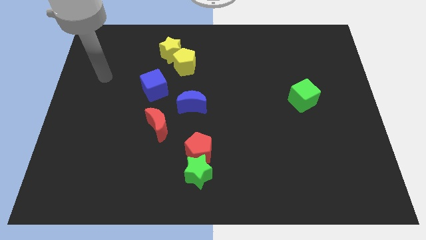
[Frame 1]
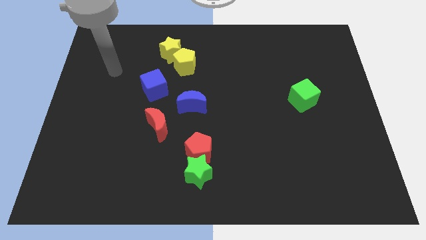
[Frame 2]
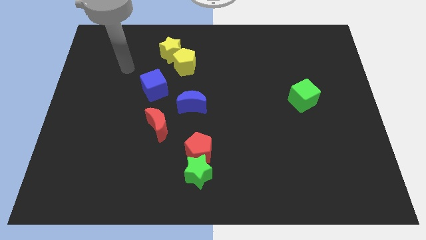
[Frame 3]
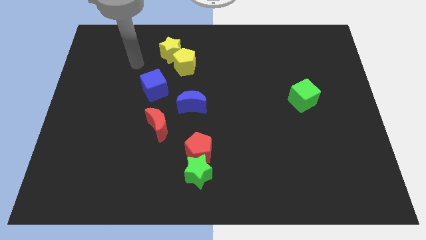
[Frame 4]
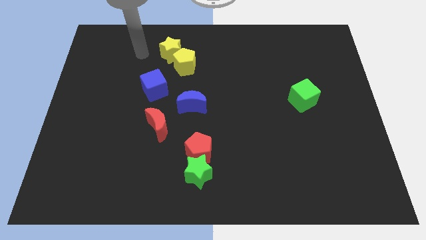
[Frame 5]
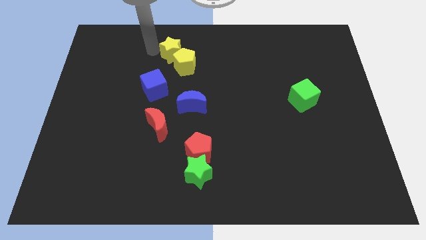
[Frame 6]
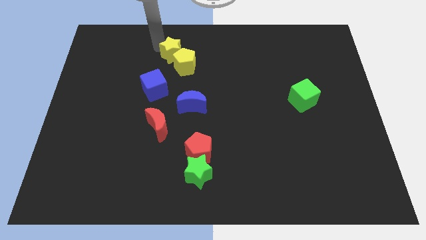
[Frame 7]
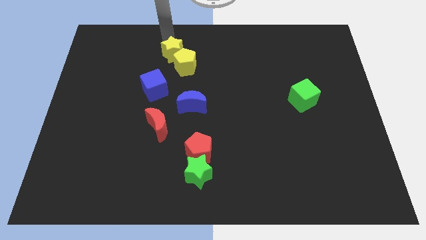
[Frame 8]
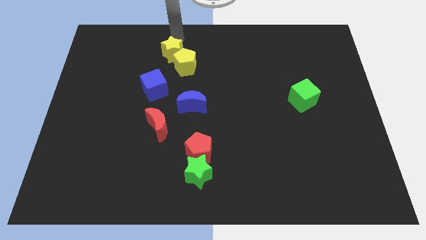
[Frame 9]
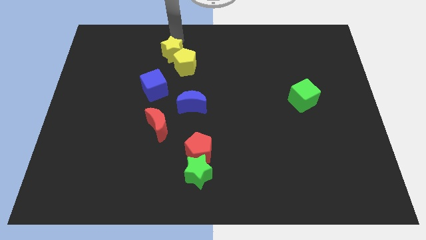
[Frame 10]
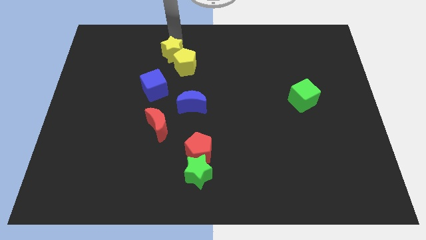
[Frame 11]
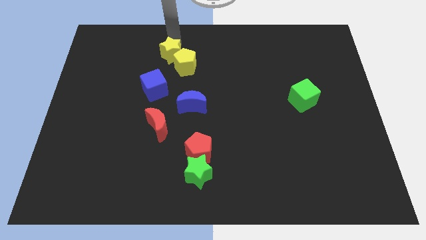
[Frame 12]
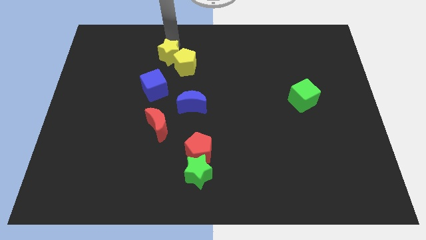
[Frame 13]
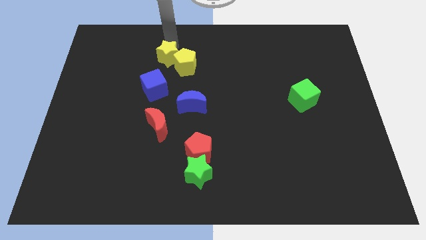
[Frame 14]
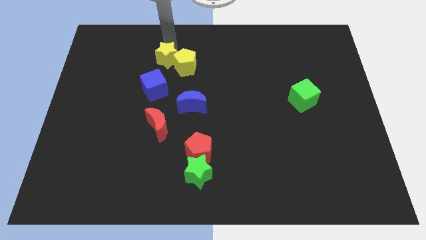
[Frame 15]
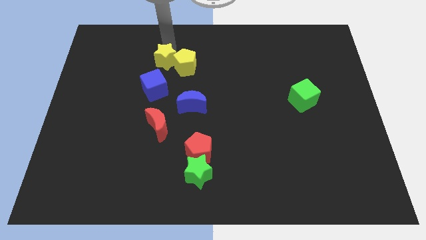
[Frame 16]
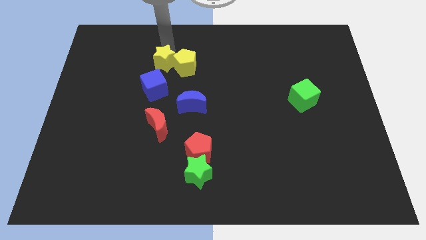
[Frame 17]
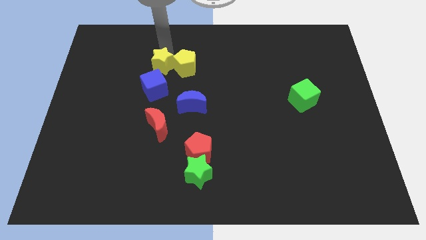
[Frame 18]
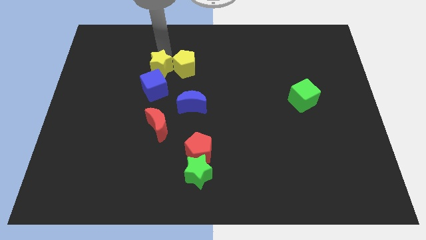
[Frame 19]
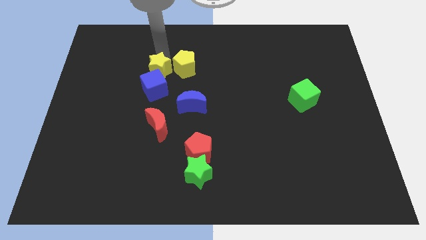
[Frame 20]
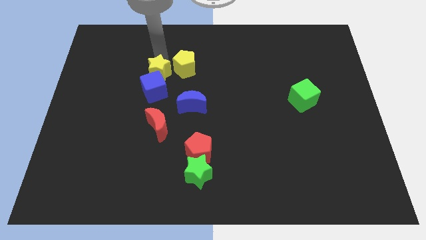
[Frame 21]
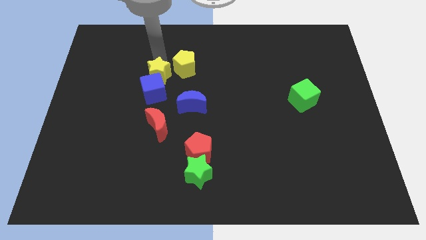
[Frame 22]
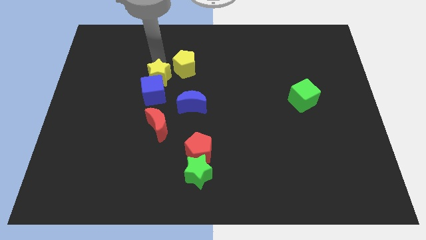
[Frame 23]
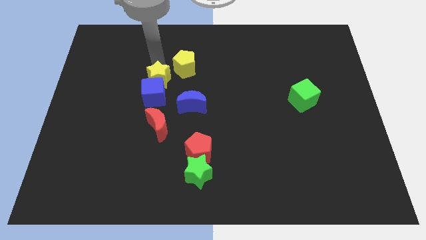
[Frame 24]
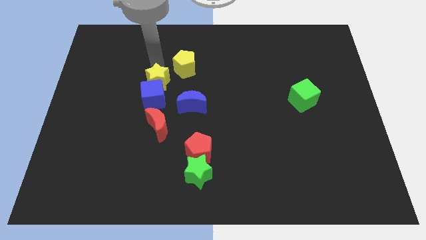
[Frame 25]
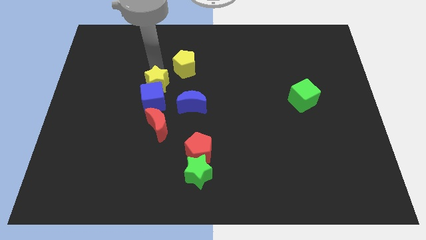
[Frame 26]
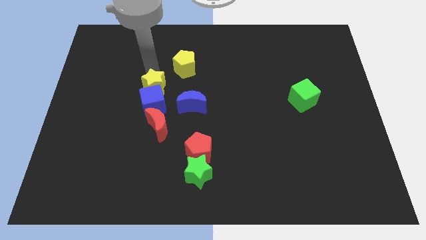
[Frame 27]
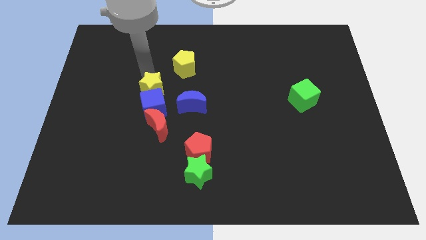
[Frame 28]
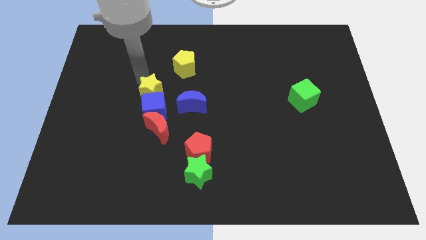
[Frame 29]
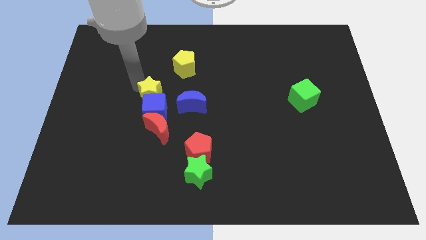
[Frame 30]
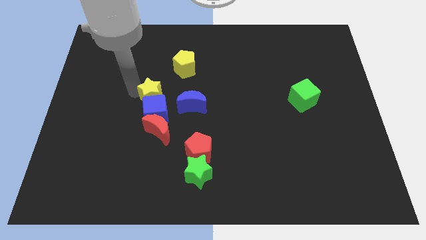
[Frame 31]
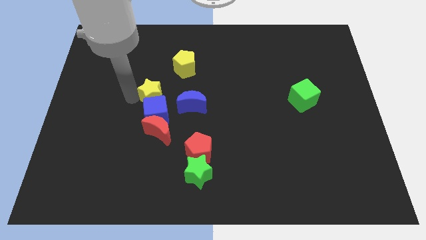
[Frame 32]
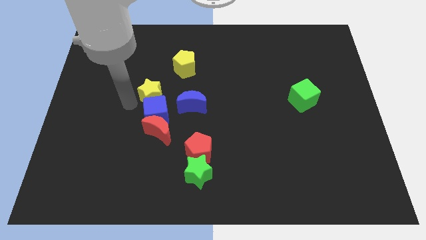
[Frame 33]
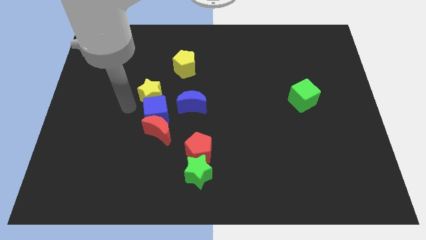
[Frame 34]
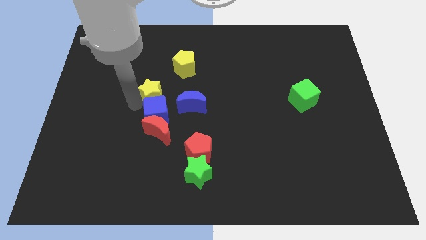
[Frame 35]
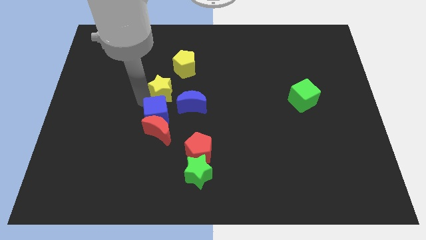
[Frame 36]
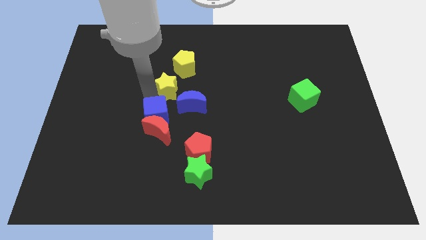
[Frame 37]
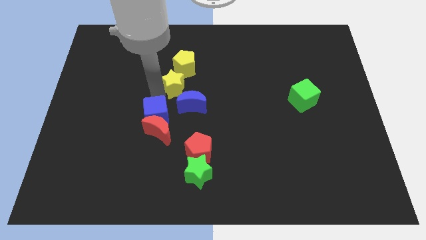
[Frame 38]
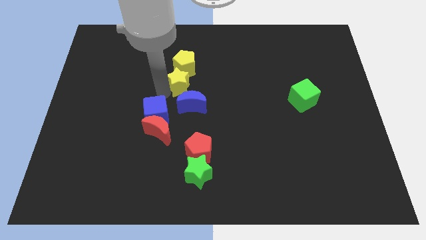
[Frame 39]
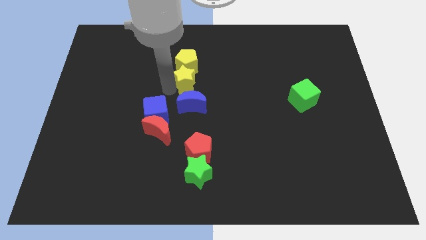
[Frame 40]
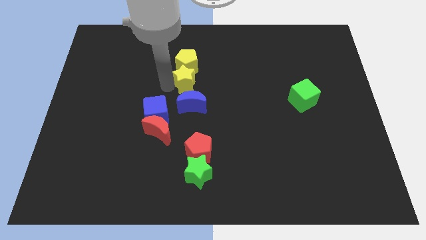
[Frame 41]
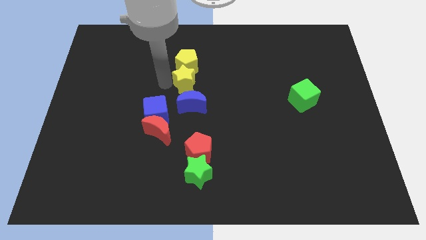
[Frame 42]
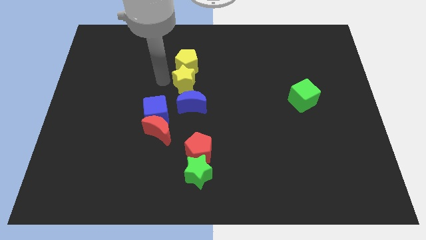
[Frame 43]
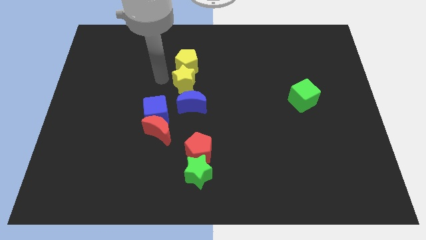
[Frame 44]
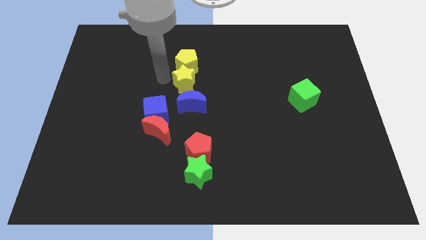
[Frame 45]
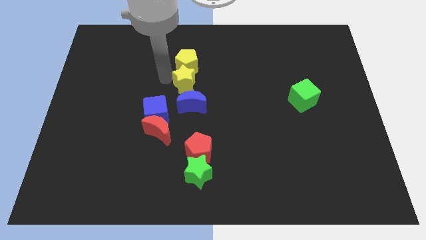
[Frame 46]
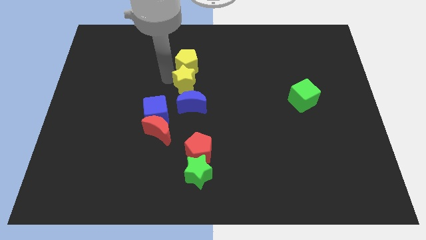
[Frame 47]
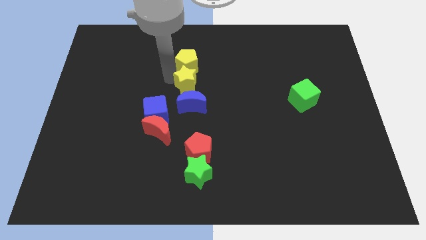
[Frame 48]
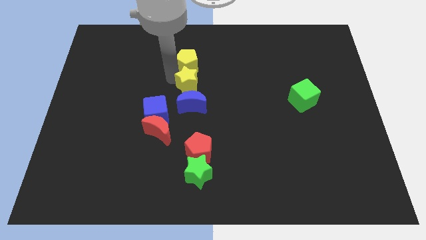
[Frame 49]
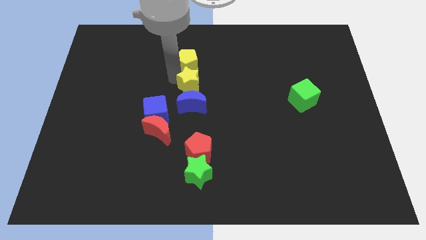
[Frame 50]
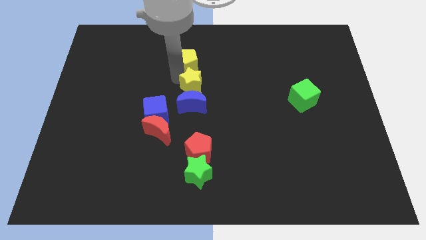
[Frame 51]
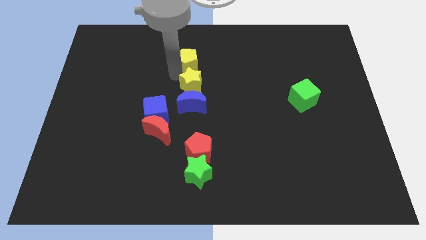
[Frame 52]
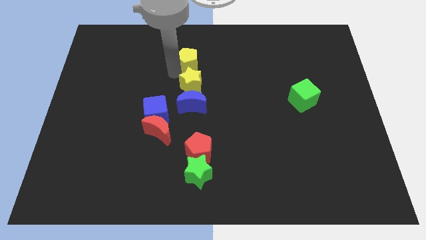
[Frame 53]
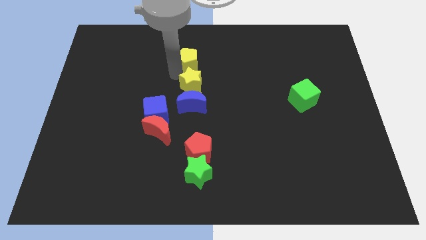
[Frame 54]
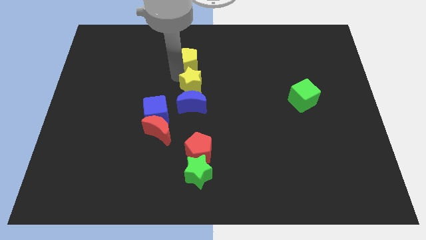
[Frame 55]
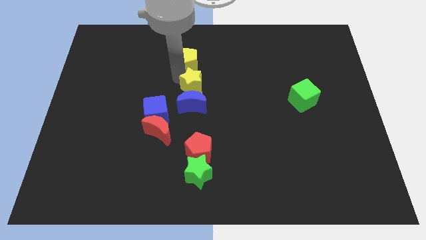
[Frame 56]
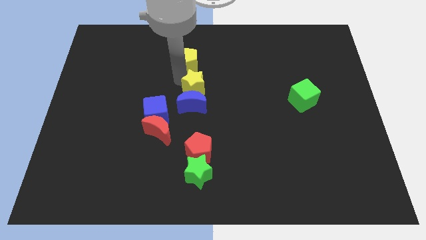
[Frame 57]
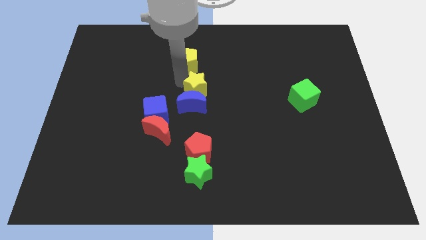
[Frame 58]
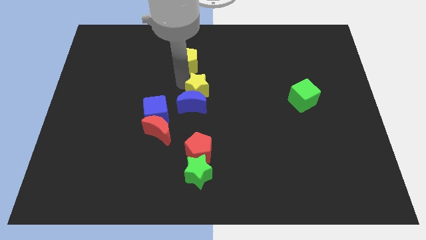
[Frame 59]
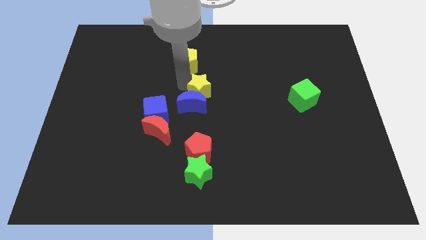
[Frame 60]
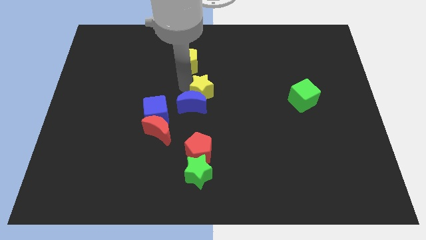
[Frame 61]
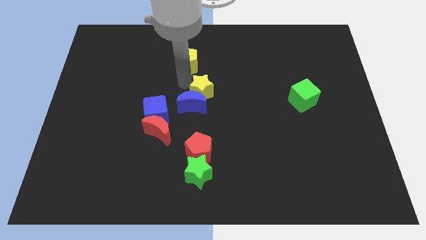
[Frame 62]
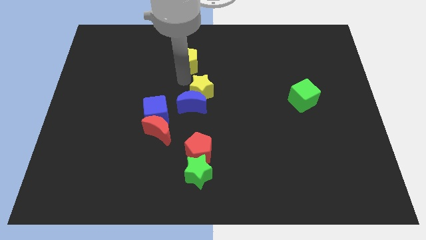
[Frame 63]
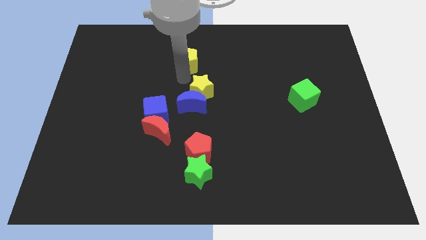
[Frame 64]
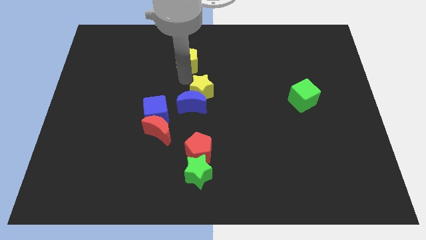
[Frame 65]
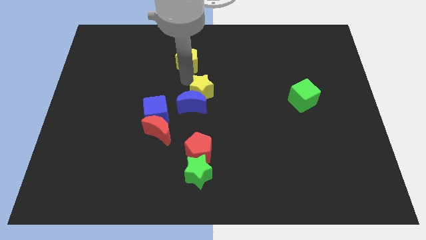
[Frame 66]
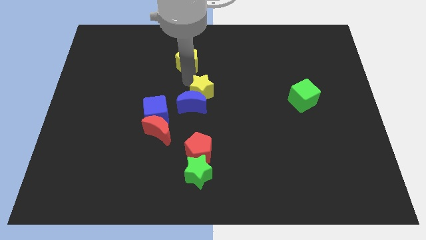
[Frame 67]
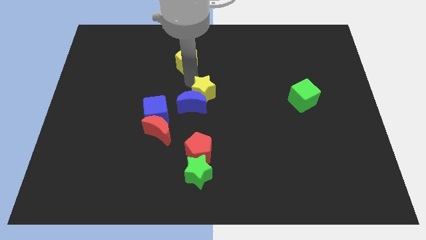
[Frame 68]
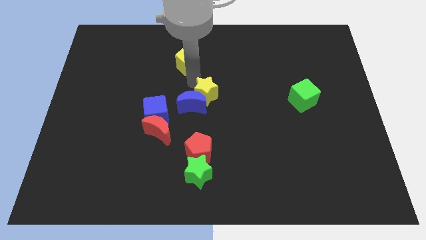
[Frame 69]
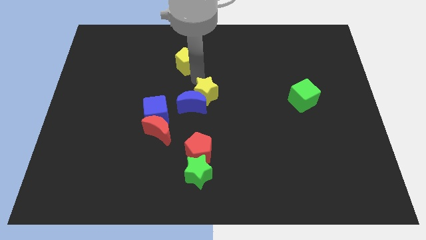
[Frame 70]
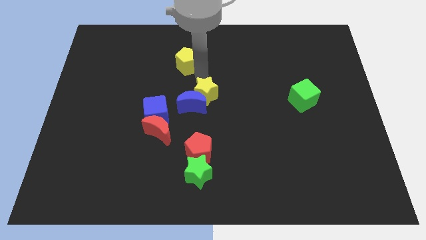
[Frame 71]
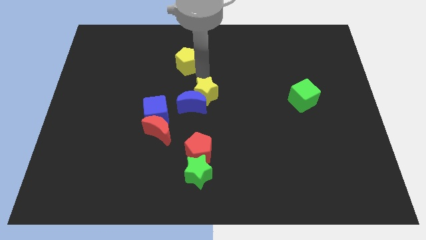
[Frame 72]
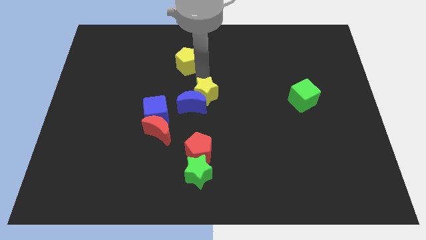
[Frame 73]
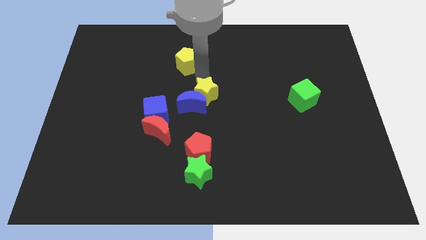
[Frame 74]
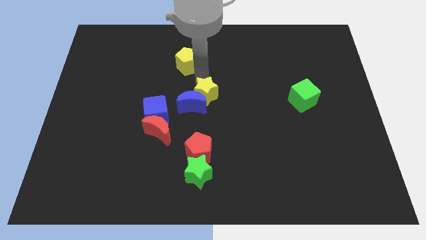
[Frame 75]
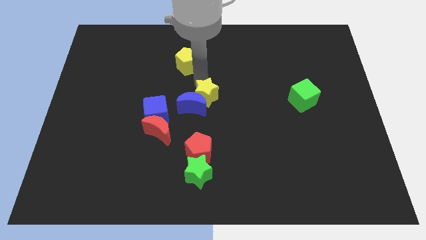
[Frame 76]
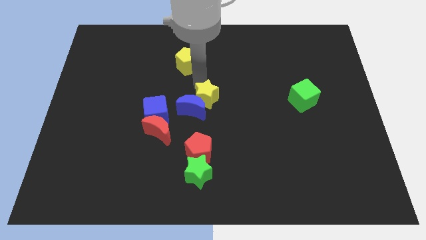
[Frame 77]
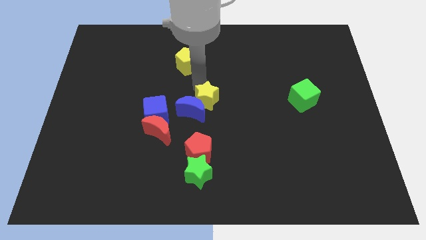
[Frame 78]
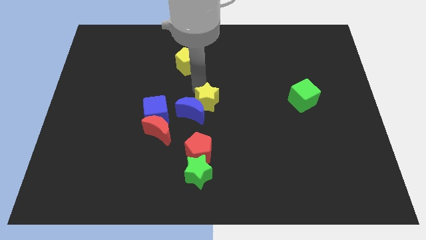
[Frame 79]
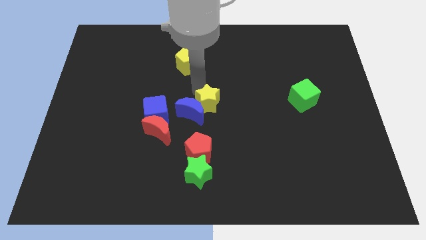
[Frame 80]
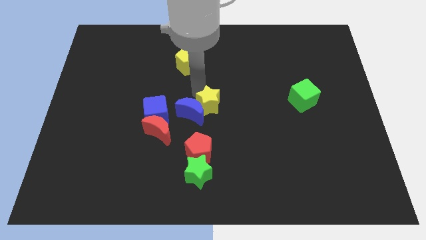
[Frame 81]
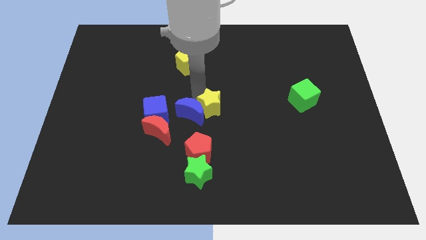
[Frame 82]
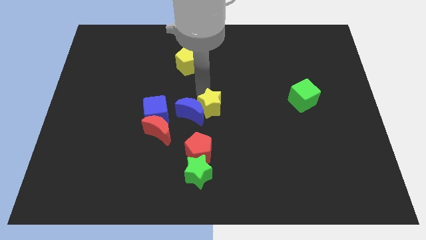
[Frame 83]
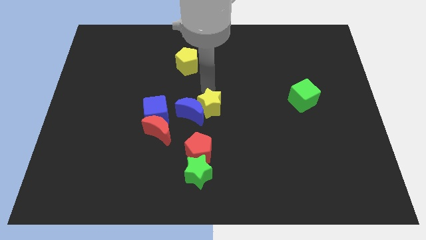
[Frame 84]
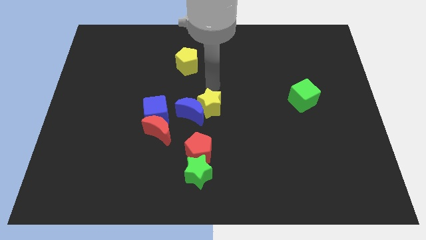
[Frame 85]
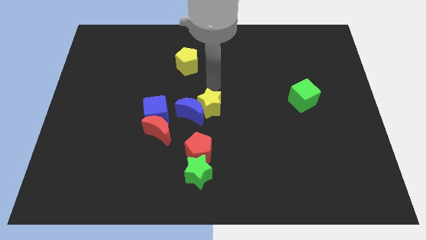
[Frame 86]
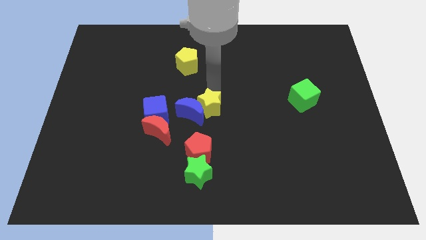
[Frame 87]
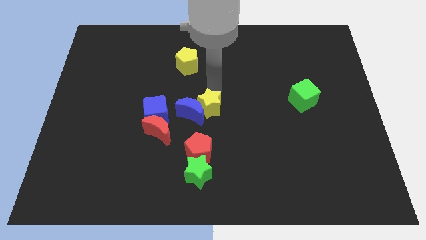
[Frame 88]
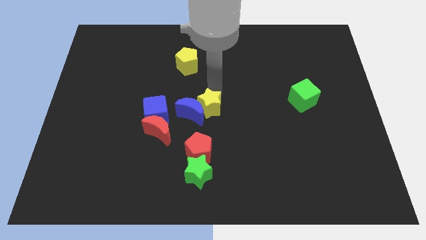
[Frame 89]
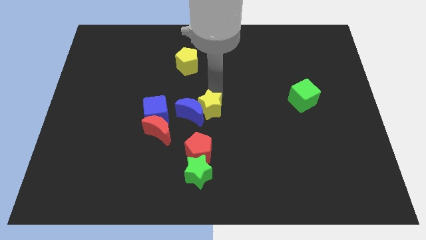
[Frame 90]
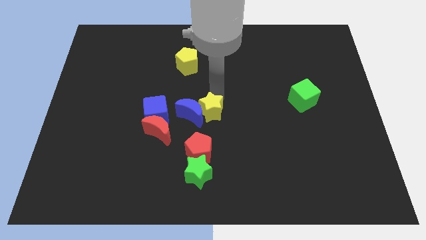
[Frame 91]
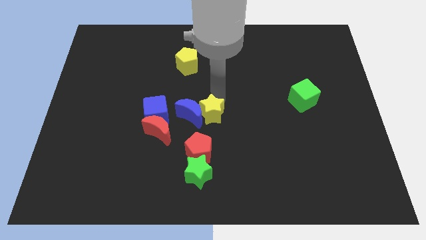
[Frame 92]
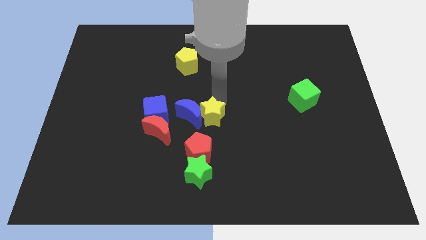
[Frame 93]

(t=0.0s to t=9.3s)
slide the yellow star right of the red moon
